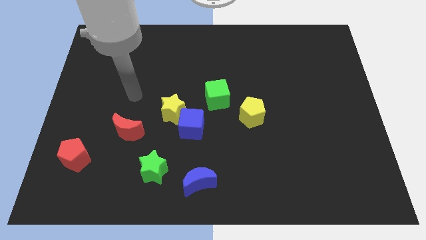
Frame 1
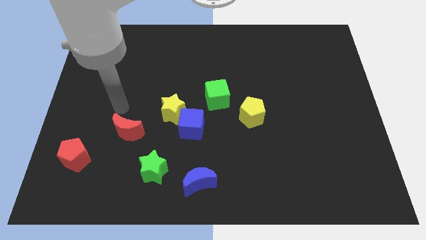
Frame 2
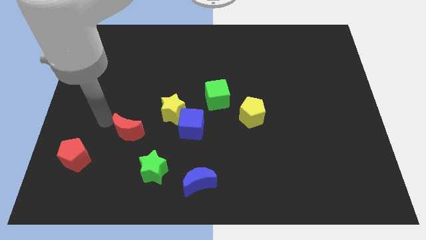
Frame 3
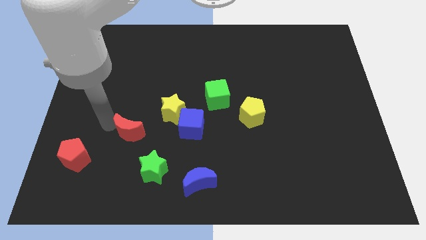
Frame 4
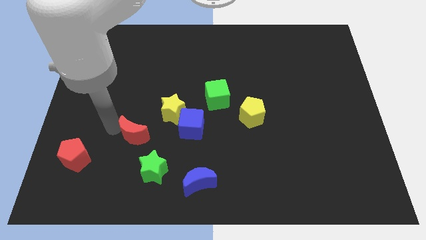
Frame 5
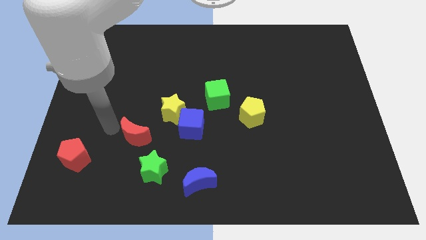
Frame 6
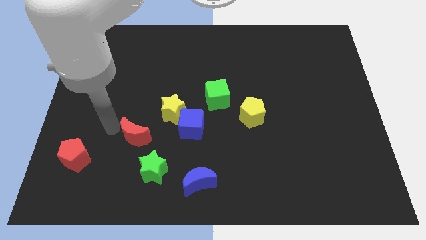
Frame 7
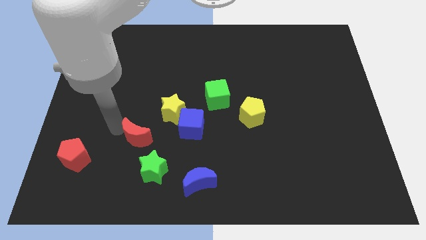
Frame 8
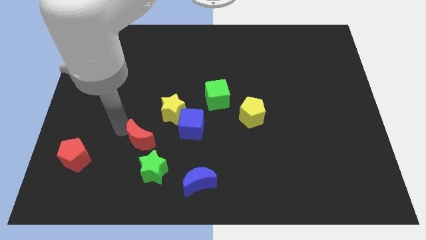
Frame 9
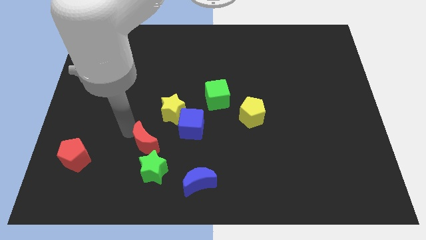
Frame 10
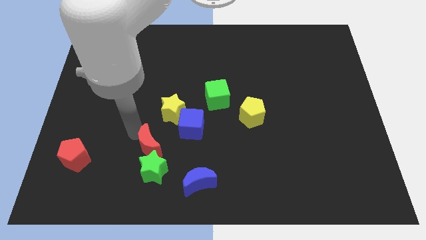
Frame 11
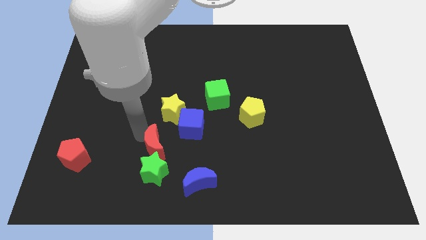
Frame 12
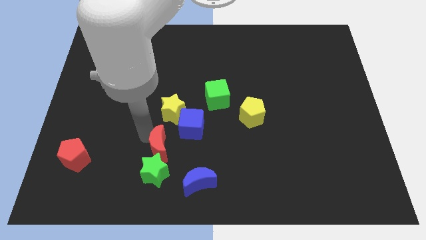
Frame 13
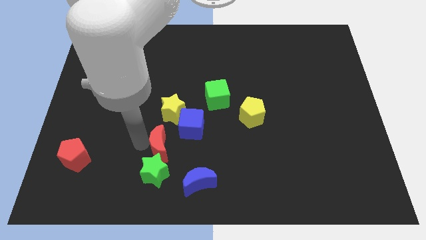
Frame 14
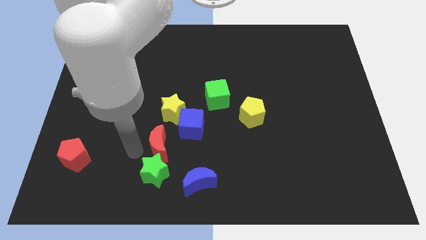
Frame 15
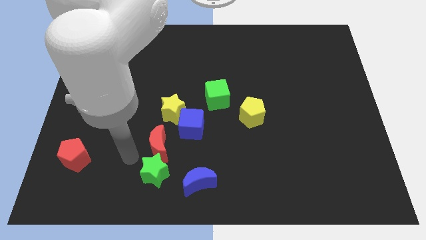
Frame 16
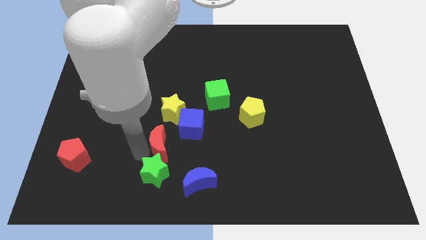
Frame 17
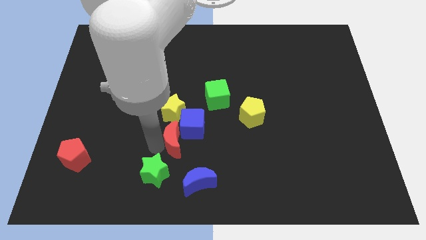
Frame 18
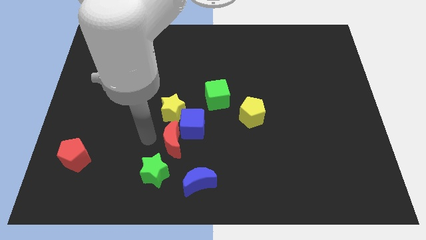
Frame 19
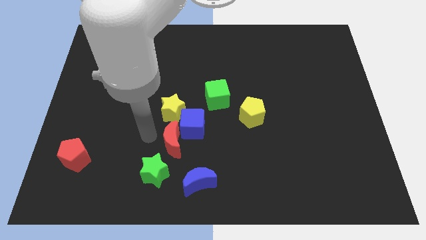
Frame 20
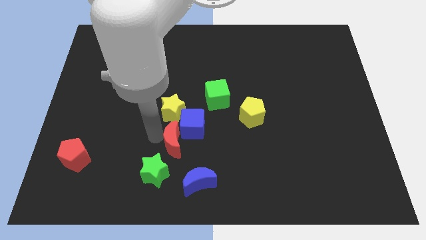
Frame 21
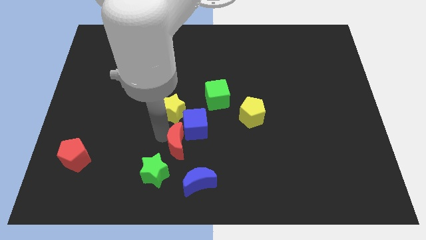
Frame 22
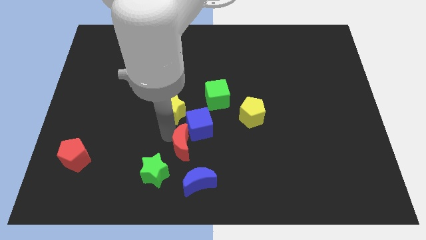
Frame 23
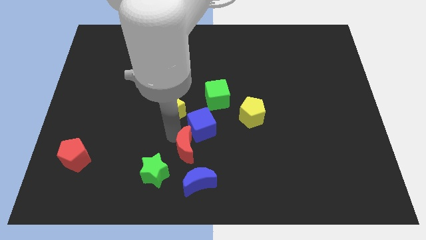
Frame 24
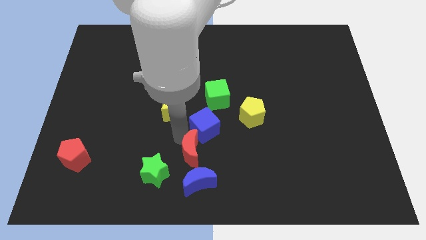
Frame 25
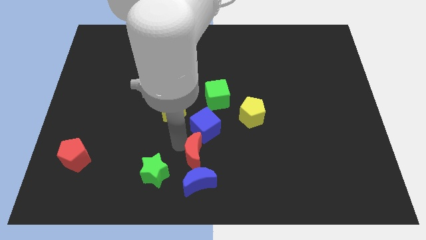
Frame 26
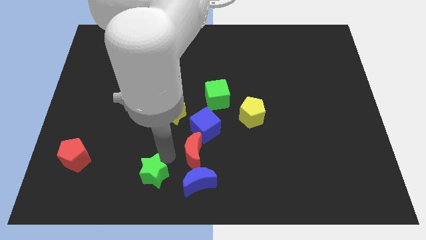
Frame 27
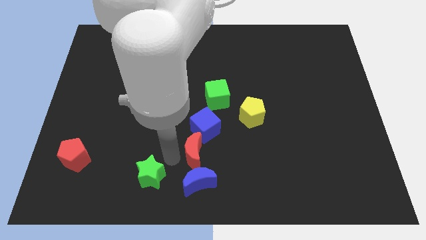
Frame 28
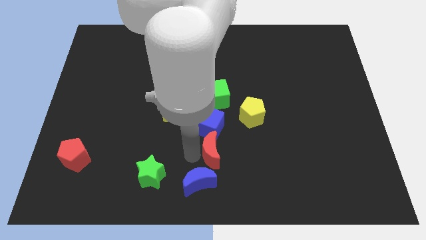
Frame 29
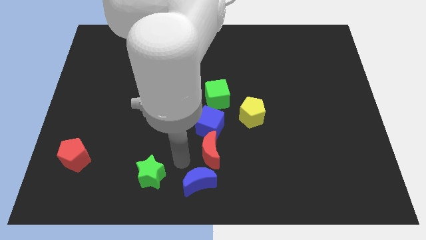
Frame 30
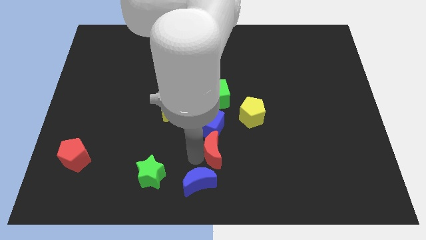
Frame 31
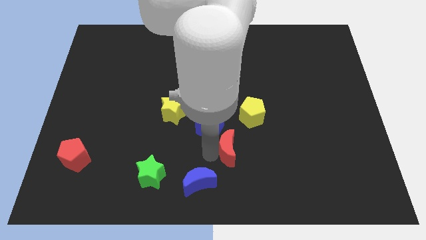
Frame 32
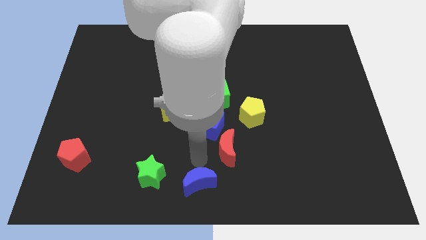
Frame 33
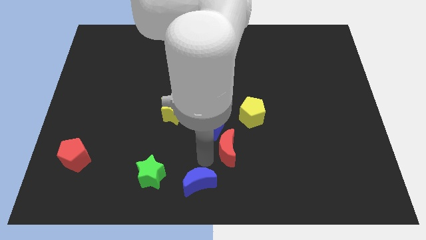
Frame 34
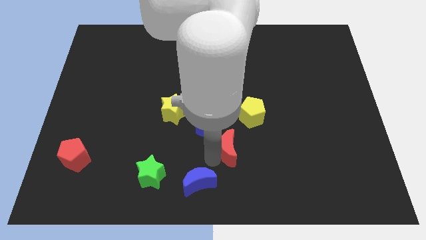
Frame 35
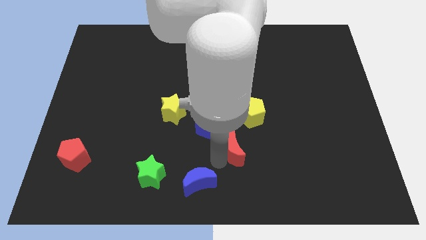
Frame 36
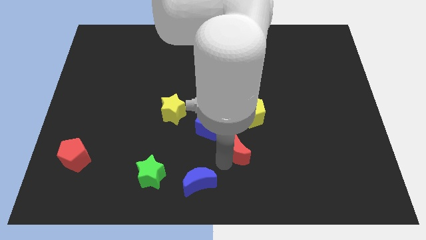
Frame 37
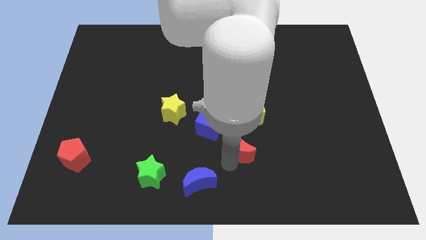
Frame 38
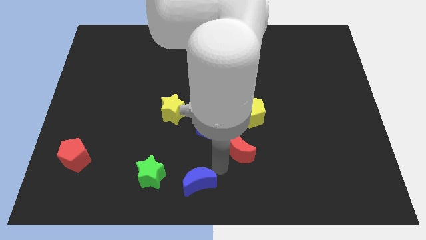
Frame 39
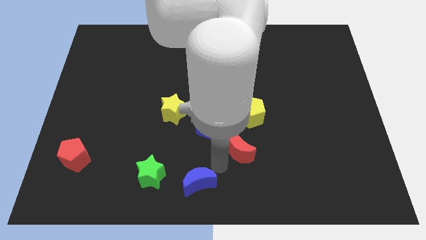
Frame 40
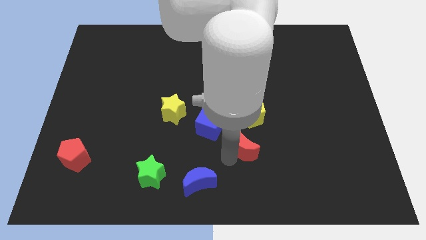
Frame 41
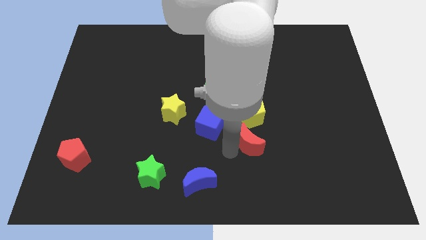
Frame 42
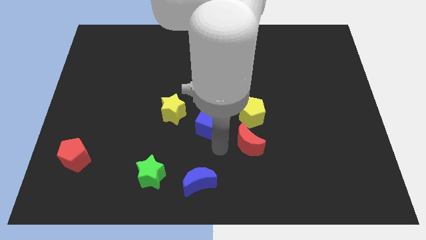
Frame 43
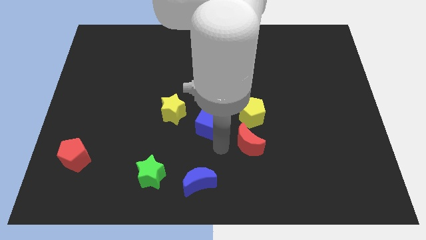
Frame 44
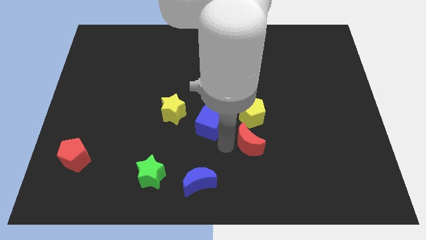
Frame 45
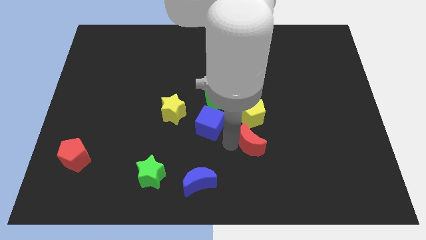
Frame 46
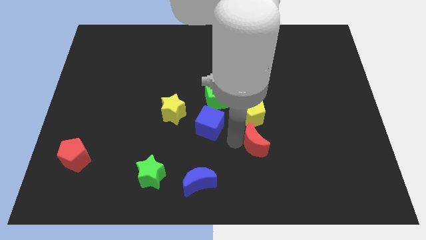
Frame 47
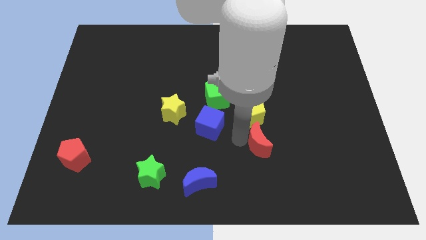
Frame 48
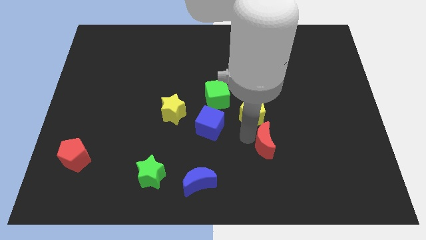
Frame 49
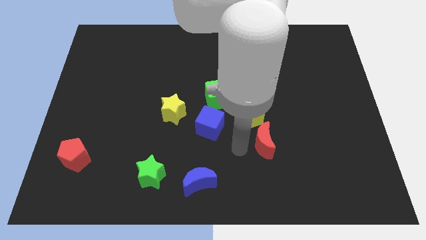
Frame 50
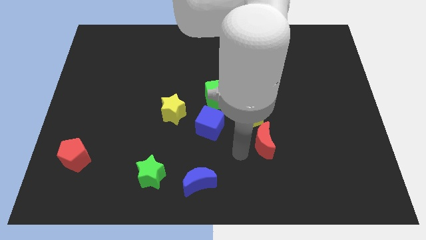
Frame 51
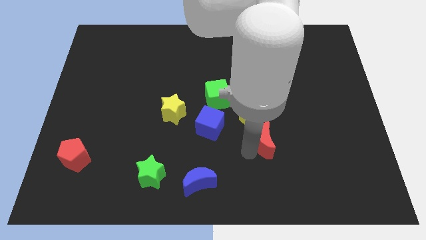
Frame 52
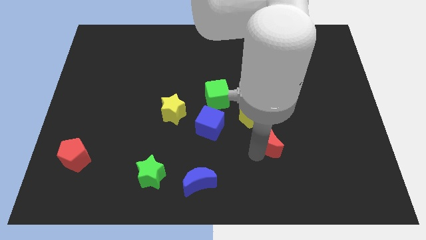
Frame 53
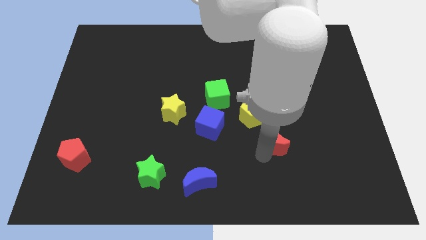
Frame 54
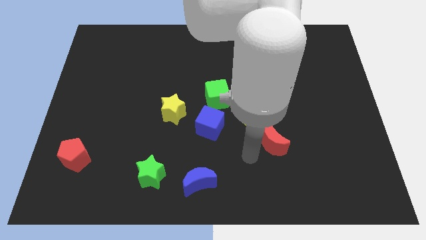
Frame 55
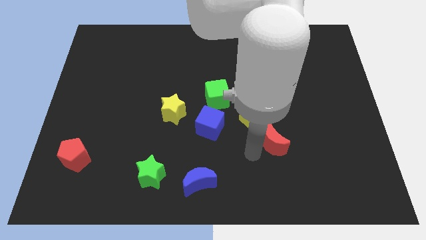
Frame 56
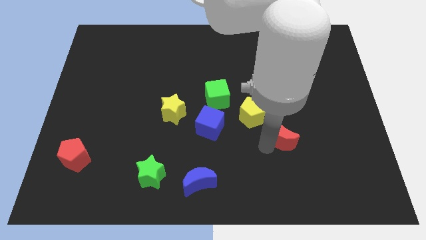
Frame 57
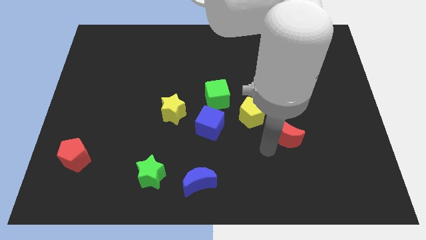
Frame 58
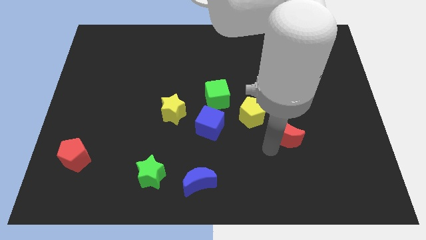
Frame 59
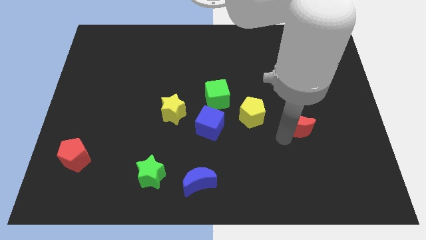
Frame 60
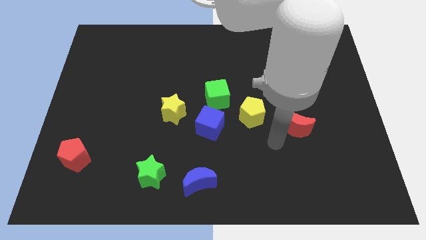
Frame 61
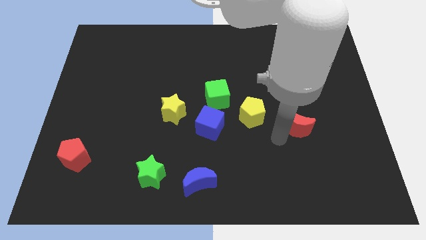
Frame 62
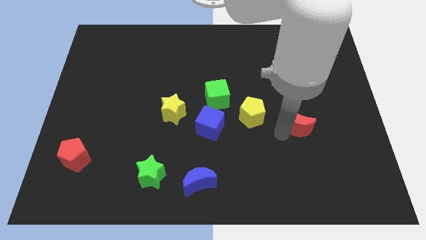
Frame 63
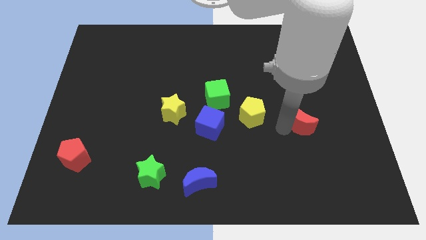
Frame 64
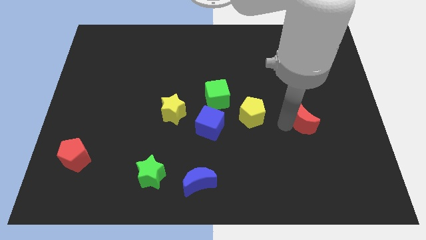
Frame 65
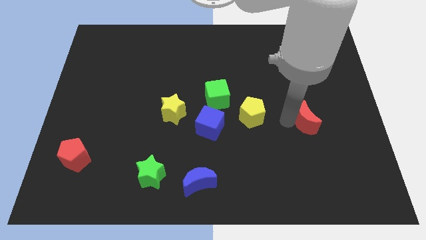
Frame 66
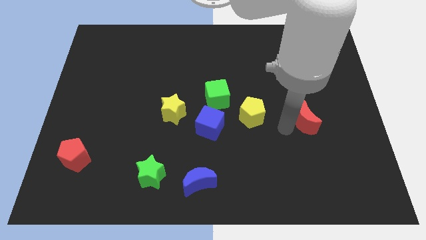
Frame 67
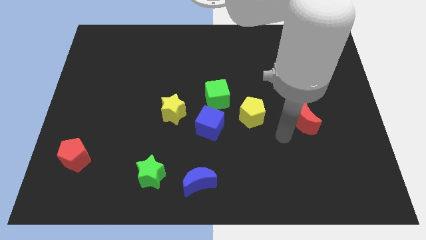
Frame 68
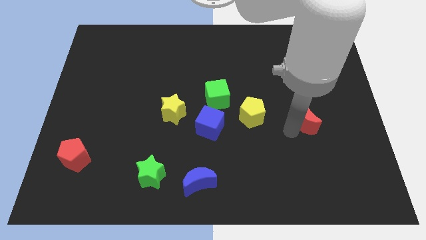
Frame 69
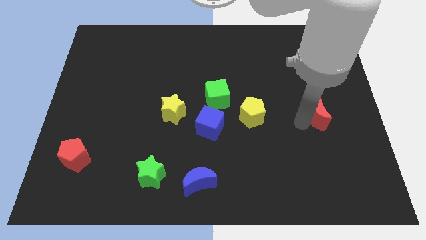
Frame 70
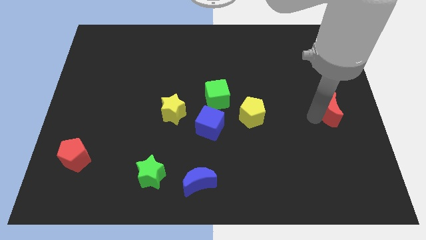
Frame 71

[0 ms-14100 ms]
move the red moon to the right side
